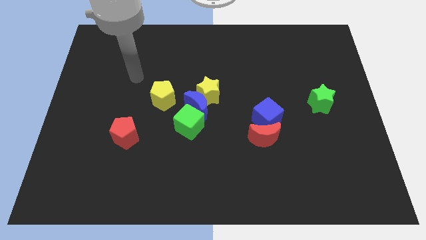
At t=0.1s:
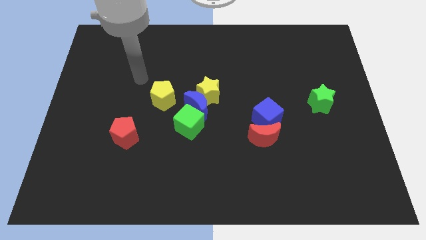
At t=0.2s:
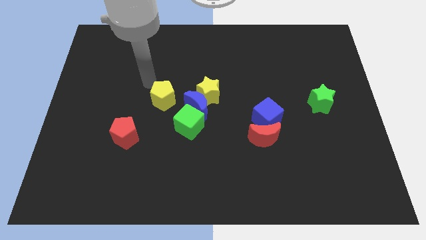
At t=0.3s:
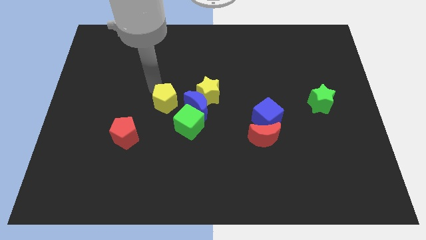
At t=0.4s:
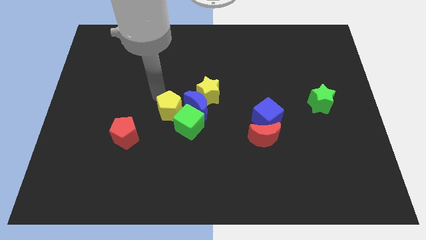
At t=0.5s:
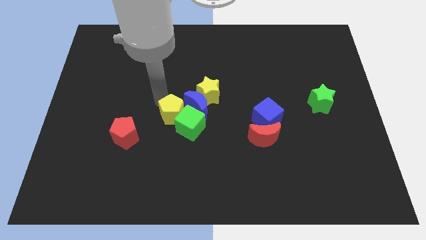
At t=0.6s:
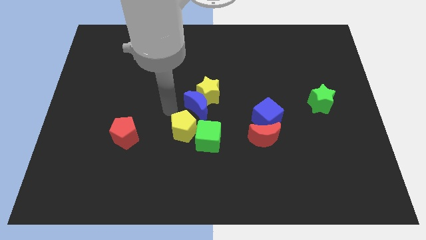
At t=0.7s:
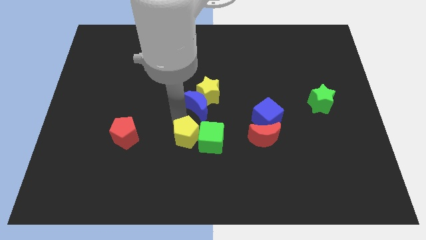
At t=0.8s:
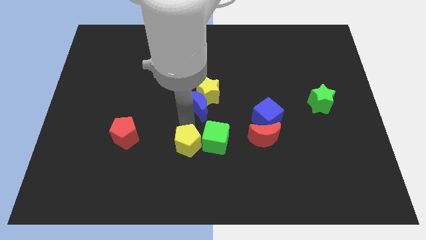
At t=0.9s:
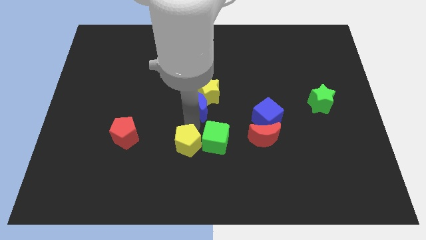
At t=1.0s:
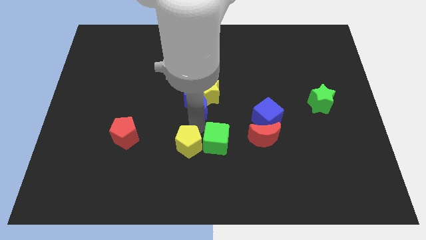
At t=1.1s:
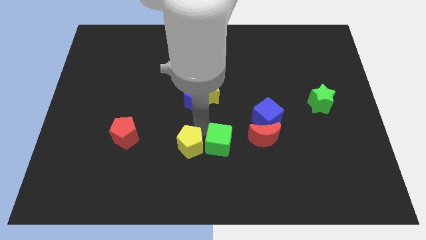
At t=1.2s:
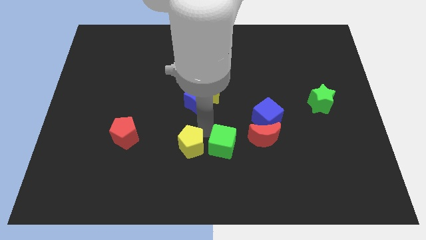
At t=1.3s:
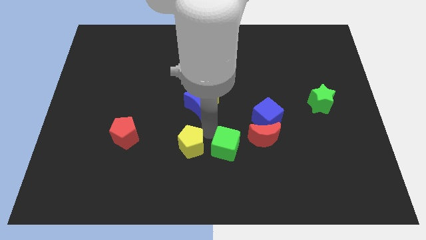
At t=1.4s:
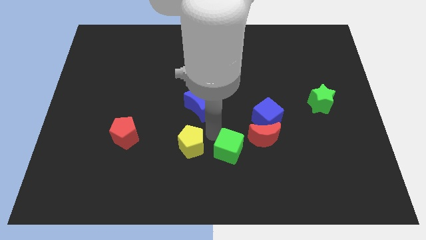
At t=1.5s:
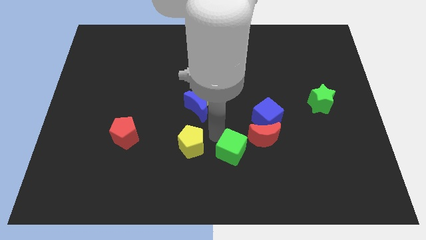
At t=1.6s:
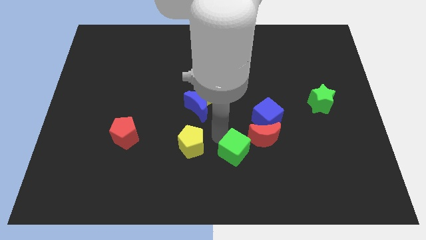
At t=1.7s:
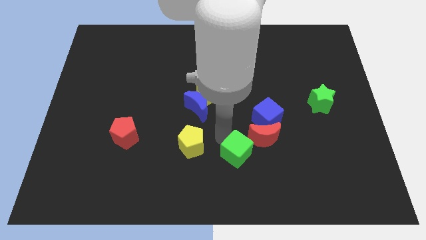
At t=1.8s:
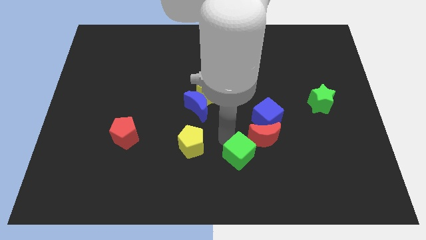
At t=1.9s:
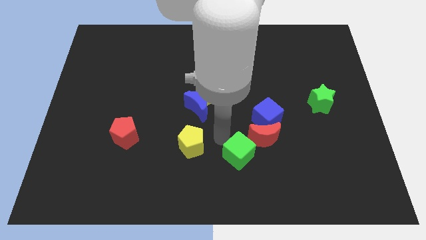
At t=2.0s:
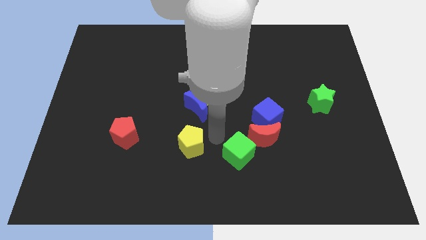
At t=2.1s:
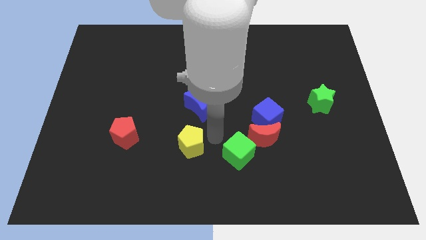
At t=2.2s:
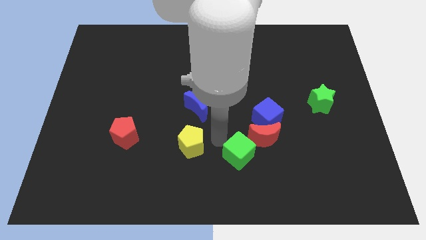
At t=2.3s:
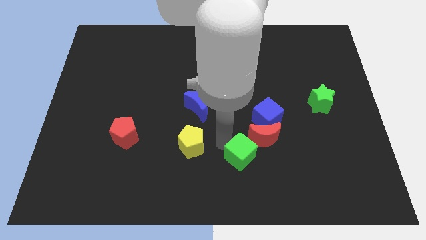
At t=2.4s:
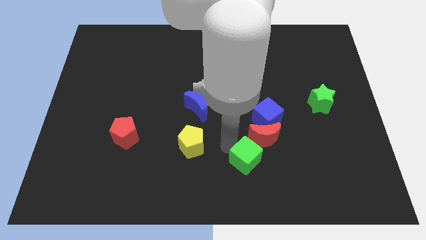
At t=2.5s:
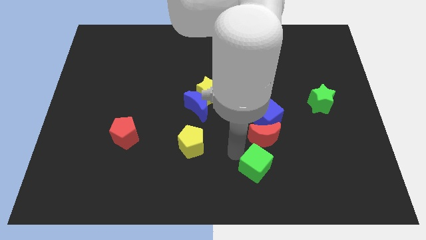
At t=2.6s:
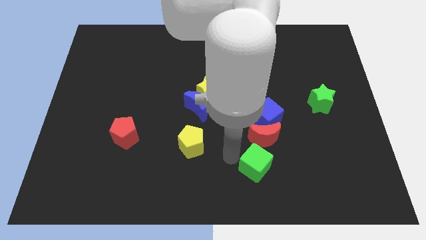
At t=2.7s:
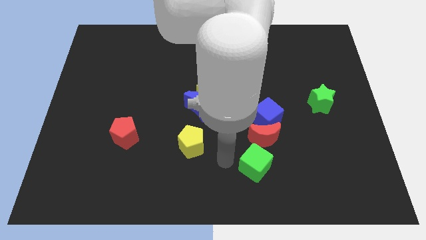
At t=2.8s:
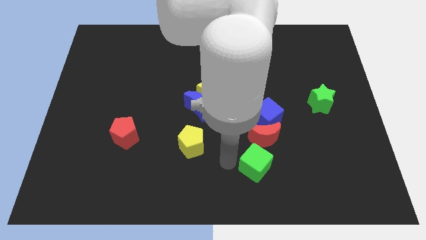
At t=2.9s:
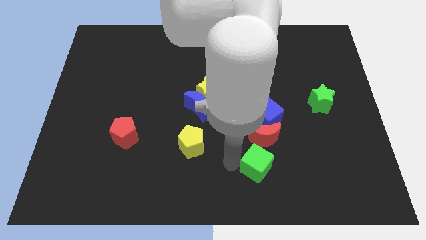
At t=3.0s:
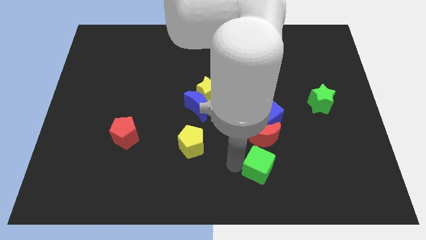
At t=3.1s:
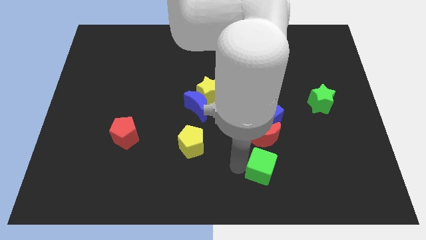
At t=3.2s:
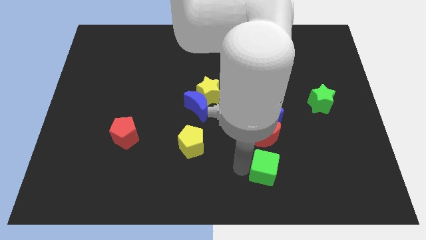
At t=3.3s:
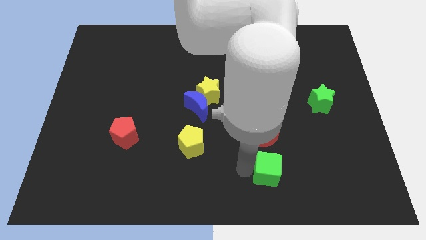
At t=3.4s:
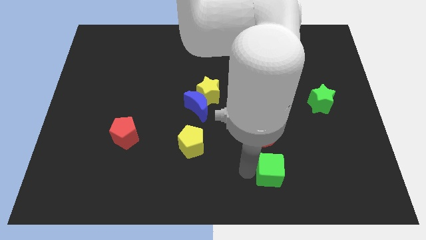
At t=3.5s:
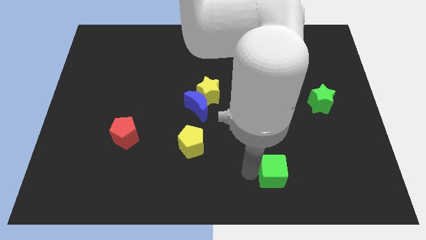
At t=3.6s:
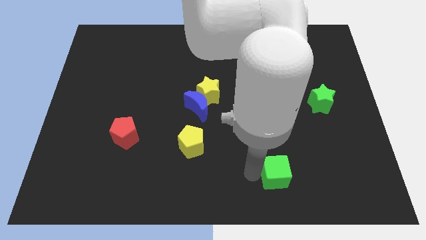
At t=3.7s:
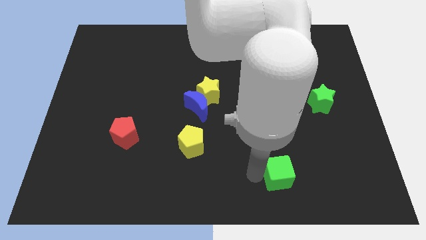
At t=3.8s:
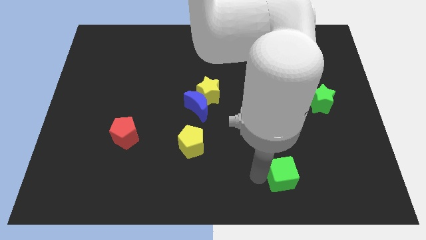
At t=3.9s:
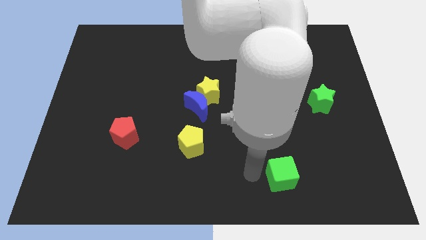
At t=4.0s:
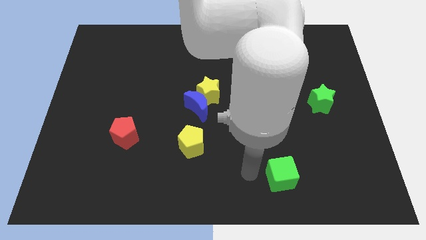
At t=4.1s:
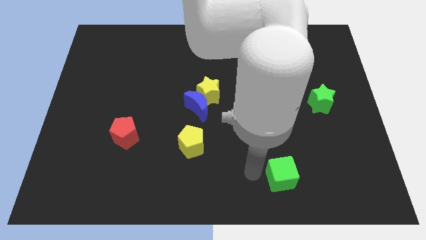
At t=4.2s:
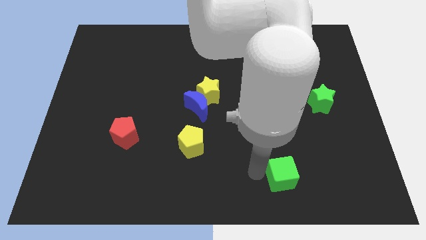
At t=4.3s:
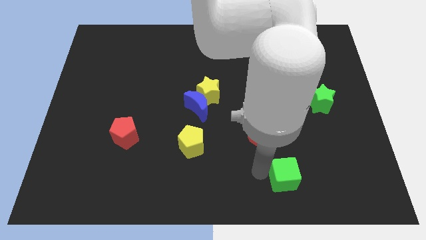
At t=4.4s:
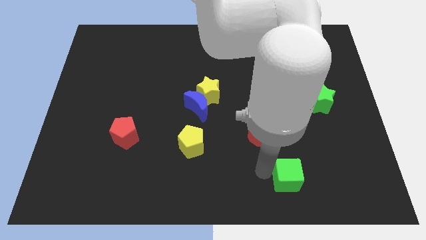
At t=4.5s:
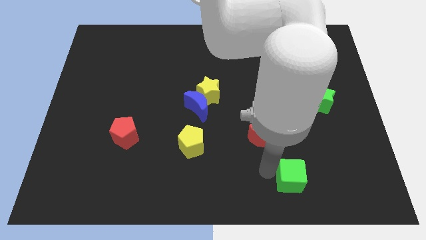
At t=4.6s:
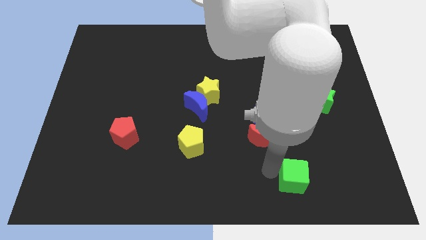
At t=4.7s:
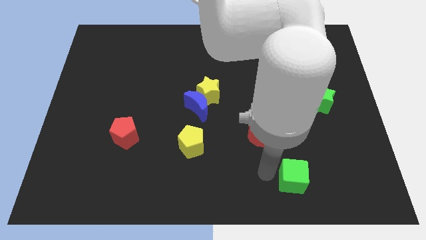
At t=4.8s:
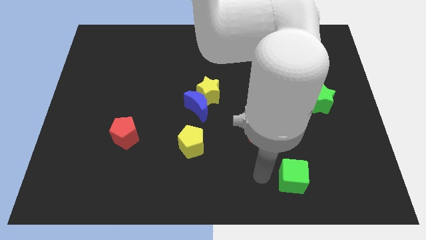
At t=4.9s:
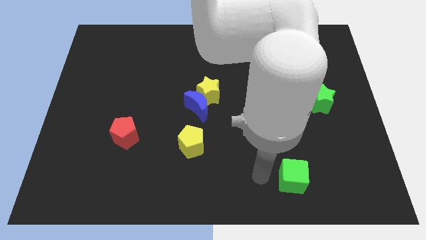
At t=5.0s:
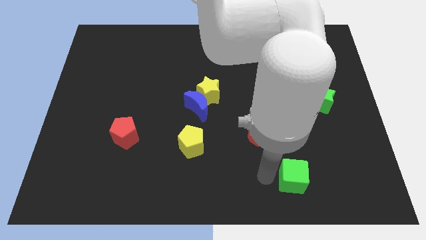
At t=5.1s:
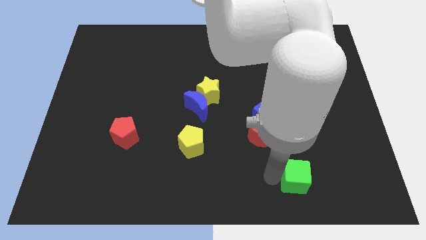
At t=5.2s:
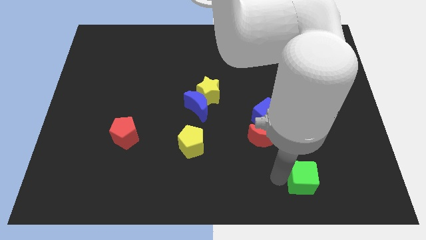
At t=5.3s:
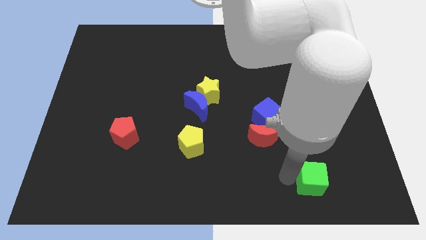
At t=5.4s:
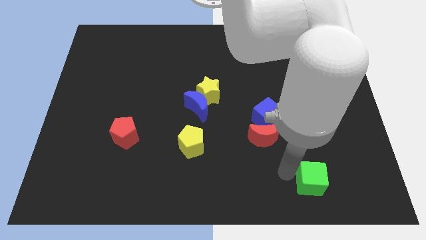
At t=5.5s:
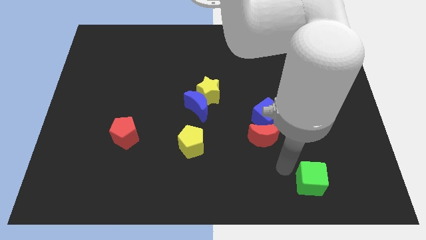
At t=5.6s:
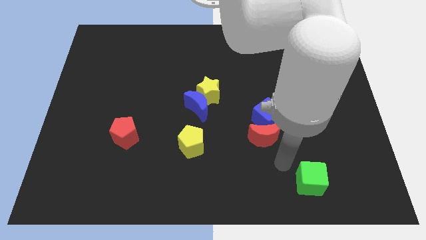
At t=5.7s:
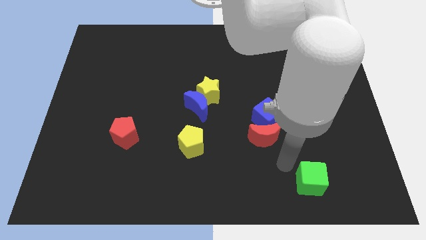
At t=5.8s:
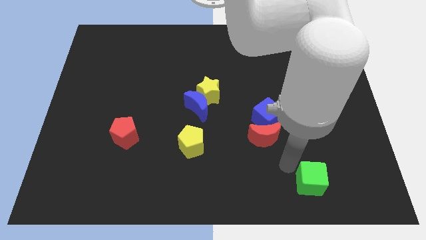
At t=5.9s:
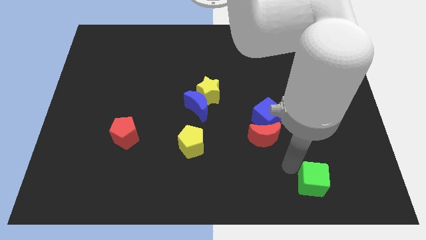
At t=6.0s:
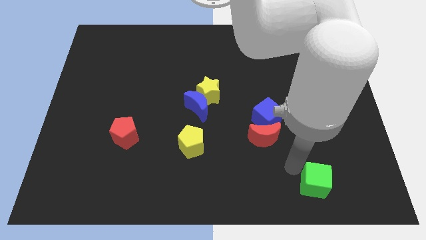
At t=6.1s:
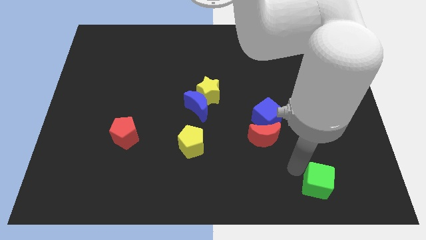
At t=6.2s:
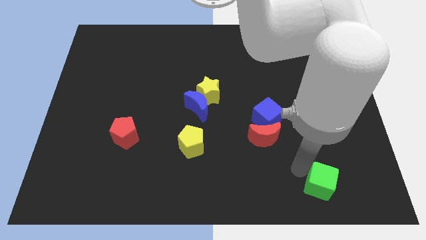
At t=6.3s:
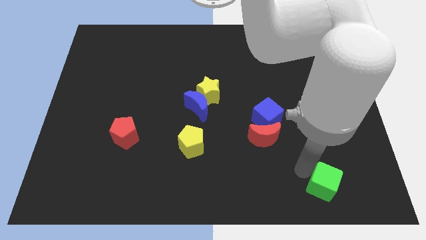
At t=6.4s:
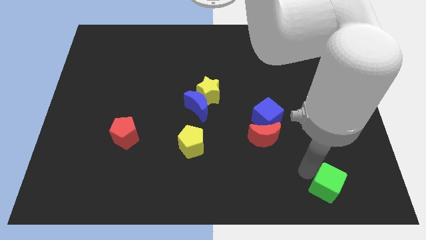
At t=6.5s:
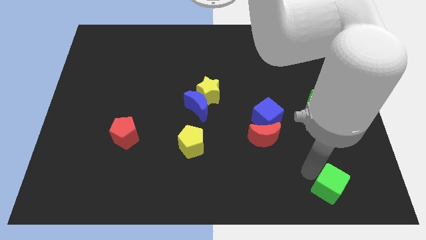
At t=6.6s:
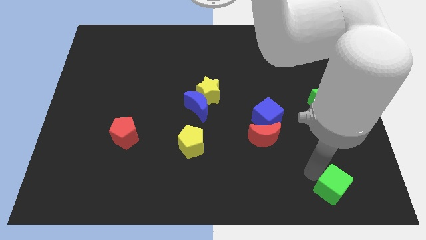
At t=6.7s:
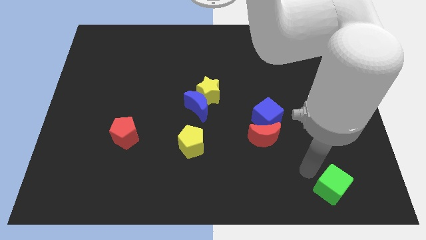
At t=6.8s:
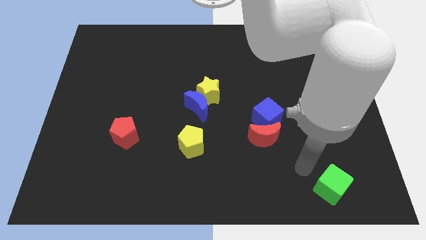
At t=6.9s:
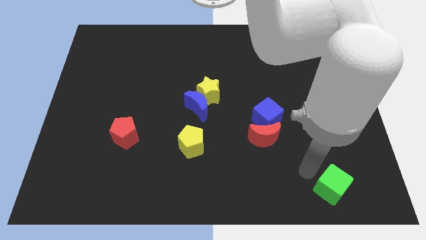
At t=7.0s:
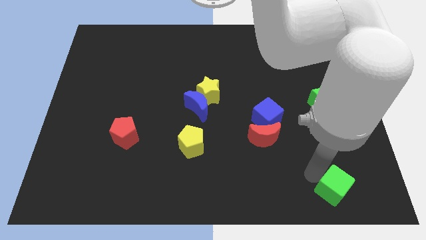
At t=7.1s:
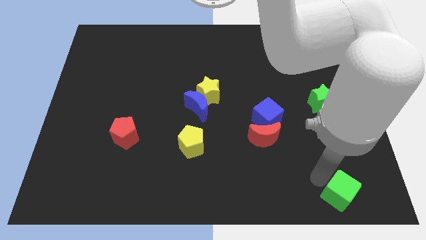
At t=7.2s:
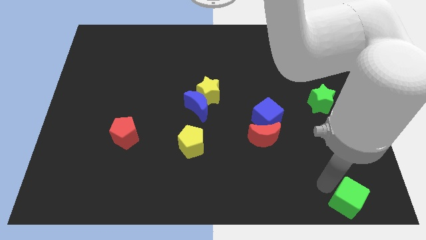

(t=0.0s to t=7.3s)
slide the green cube to the bottom right corner
